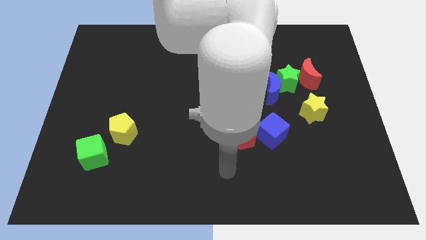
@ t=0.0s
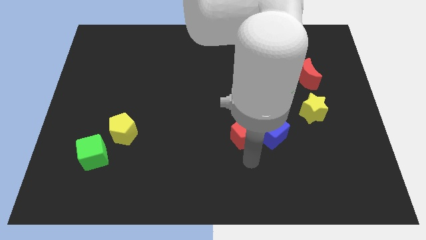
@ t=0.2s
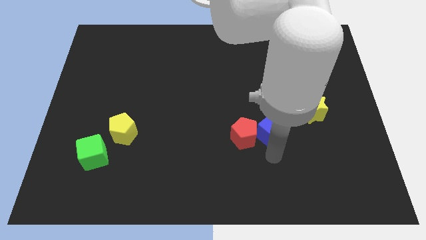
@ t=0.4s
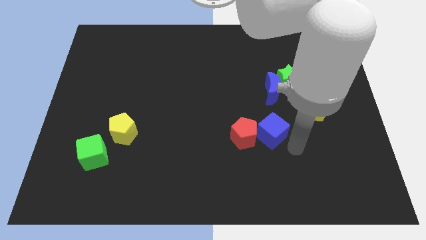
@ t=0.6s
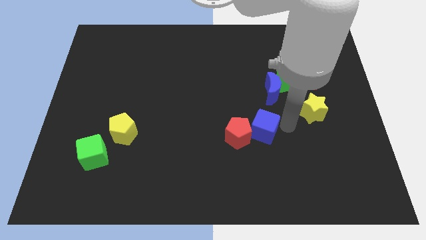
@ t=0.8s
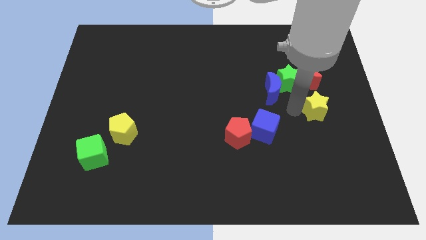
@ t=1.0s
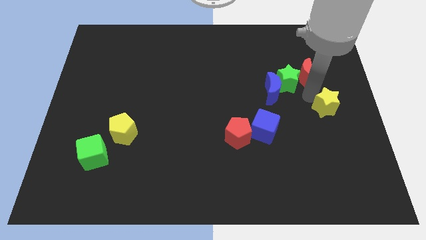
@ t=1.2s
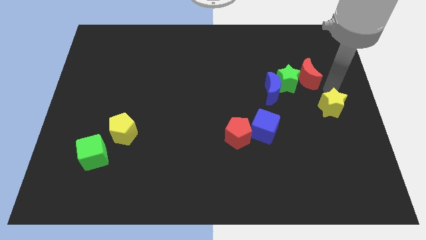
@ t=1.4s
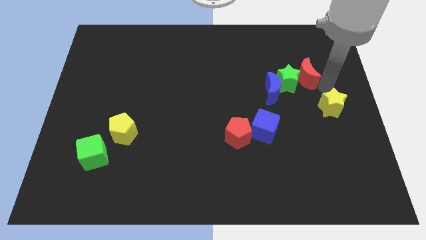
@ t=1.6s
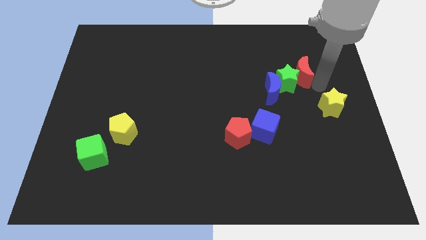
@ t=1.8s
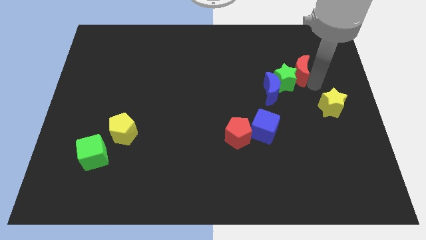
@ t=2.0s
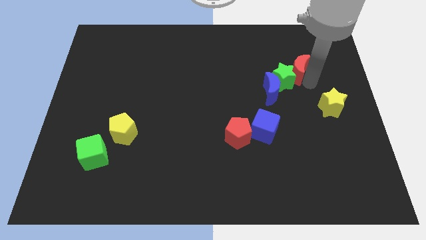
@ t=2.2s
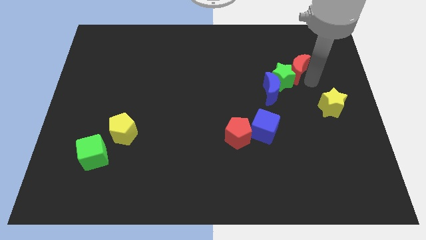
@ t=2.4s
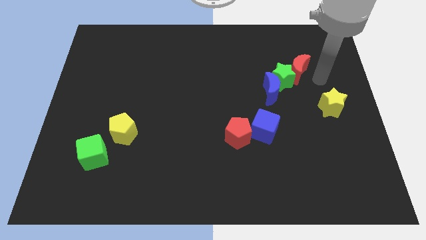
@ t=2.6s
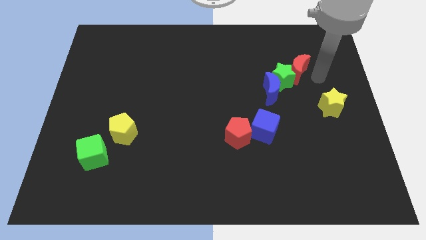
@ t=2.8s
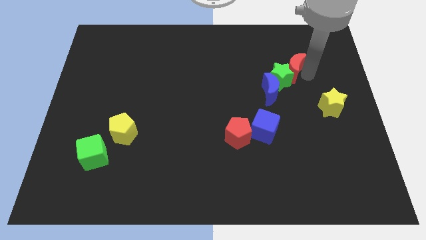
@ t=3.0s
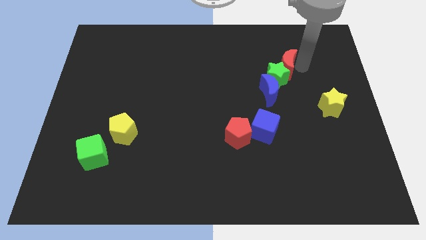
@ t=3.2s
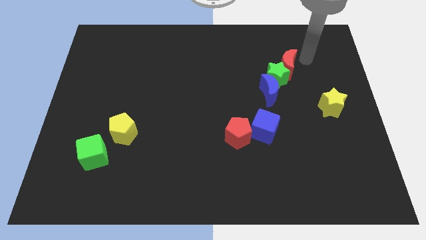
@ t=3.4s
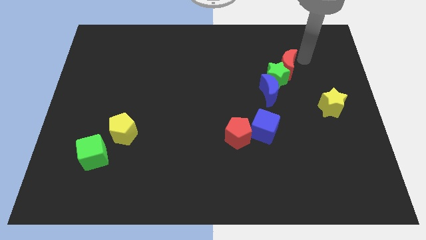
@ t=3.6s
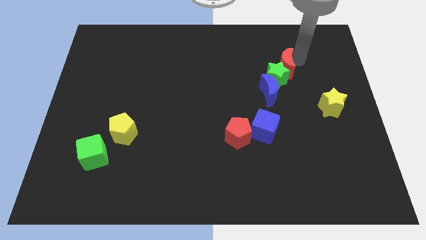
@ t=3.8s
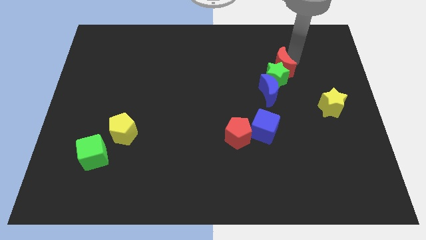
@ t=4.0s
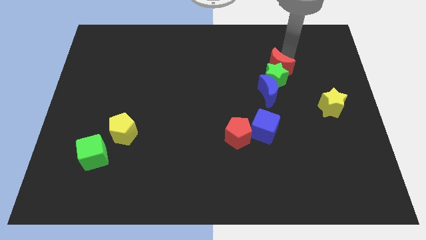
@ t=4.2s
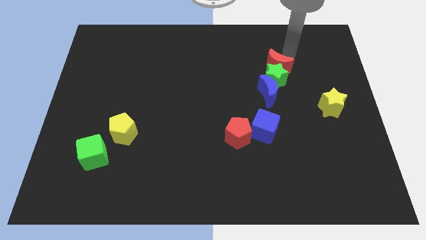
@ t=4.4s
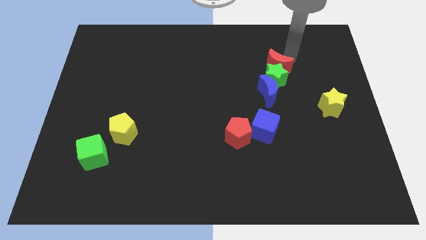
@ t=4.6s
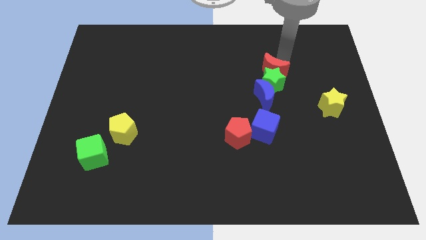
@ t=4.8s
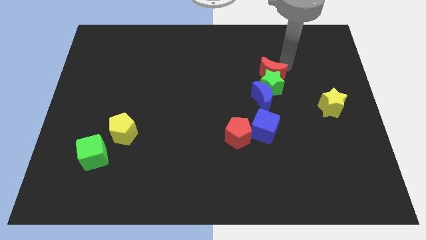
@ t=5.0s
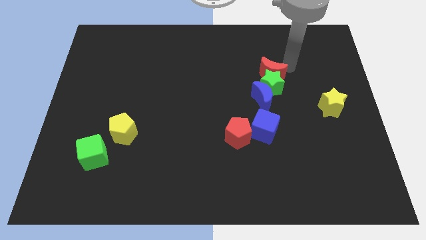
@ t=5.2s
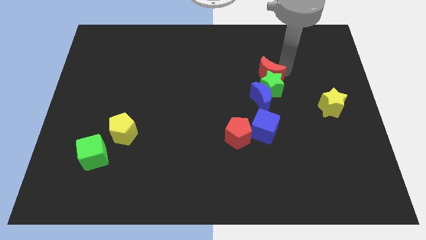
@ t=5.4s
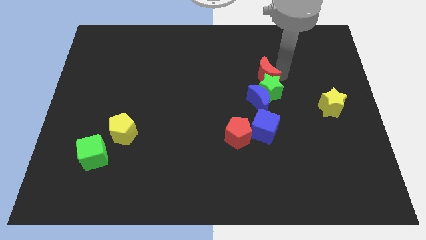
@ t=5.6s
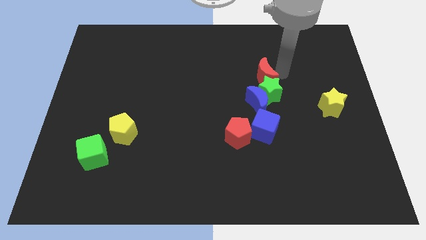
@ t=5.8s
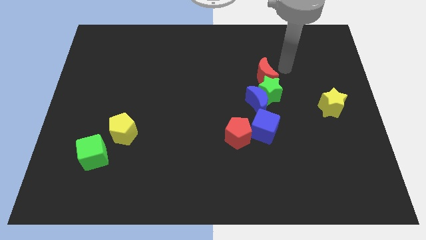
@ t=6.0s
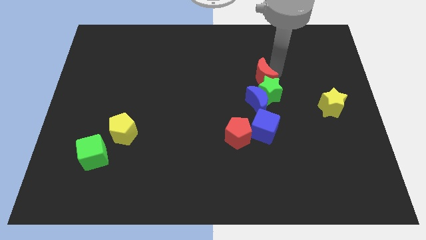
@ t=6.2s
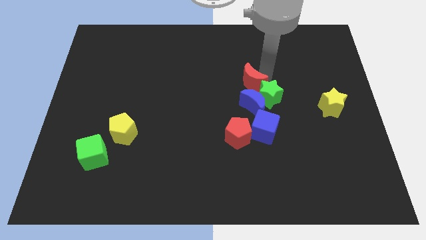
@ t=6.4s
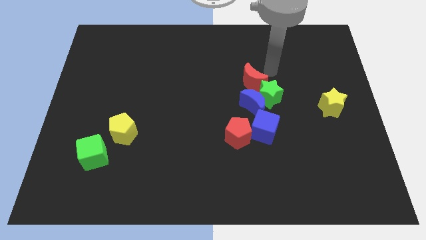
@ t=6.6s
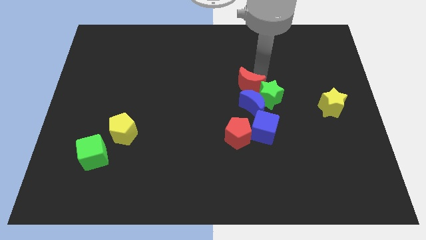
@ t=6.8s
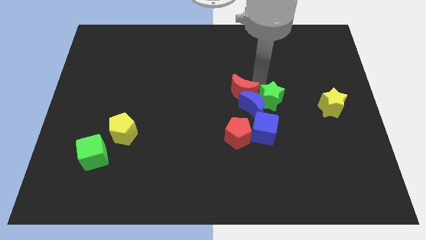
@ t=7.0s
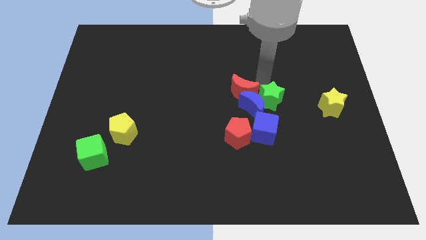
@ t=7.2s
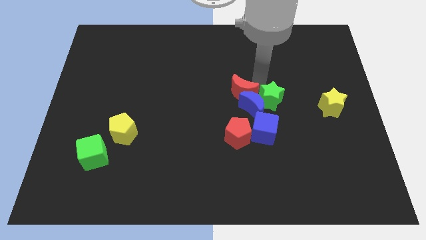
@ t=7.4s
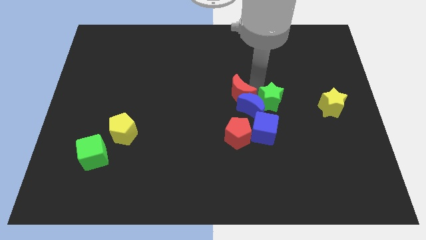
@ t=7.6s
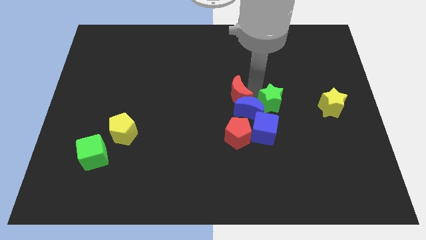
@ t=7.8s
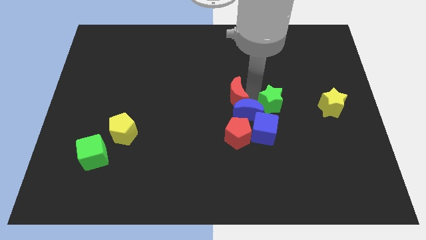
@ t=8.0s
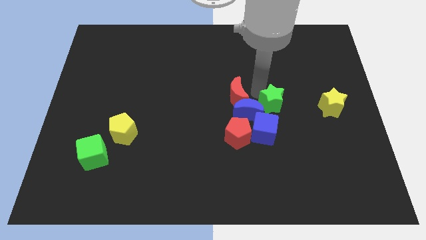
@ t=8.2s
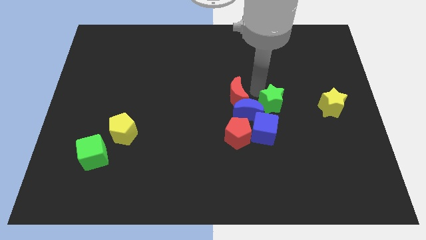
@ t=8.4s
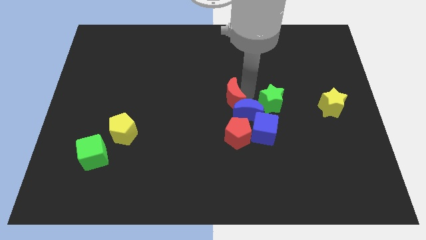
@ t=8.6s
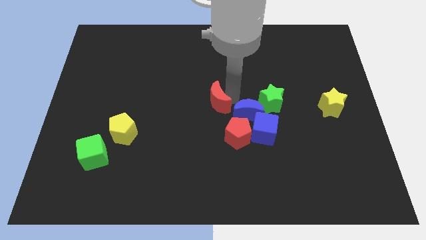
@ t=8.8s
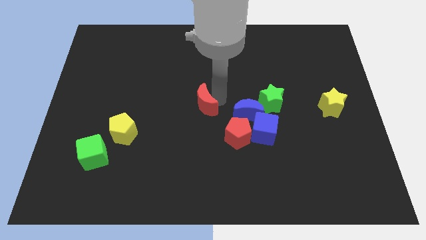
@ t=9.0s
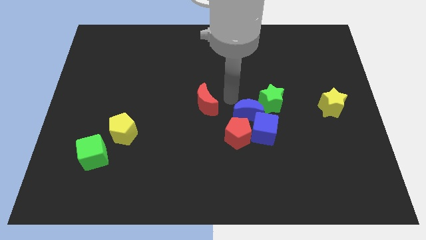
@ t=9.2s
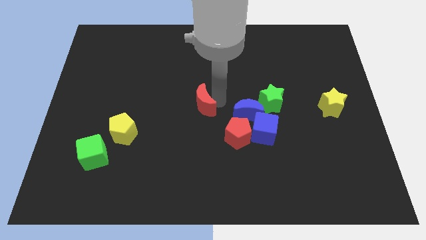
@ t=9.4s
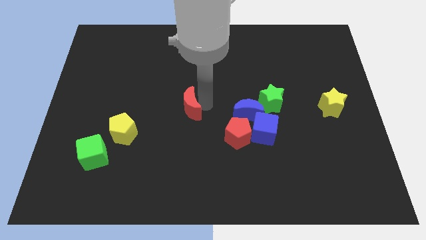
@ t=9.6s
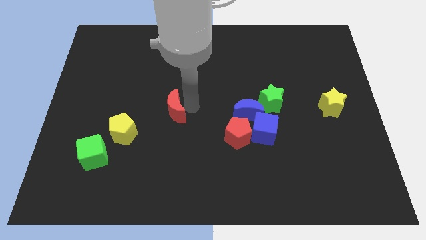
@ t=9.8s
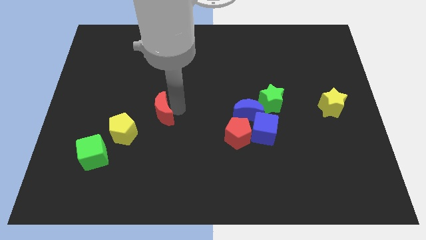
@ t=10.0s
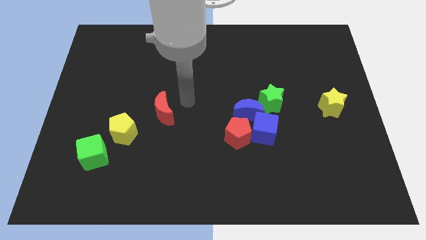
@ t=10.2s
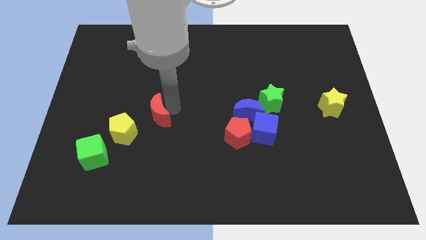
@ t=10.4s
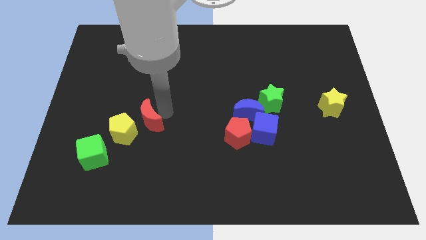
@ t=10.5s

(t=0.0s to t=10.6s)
move the red moon to the yellow pentagon

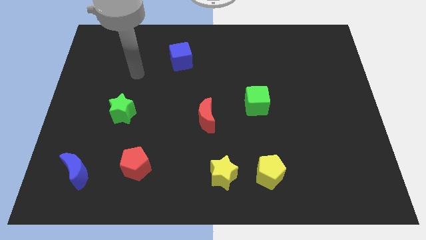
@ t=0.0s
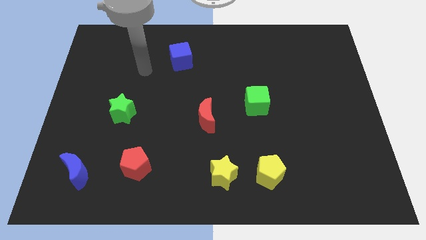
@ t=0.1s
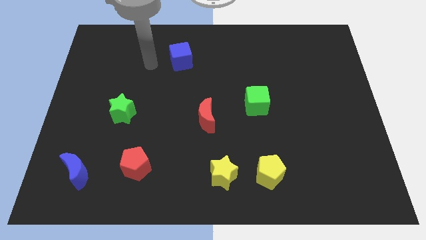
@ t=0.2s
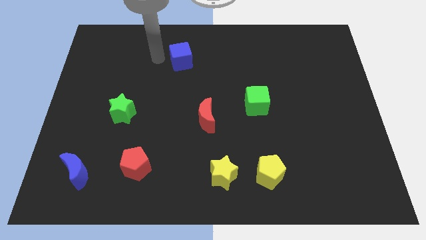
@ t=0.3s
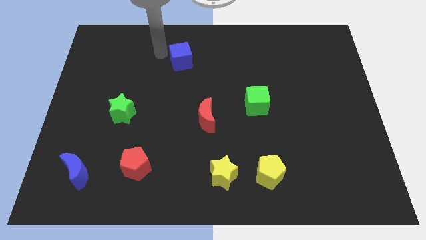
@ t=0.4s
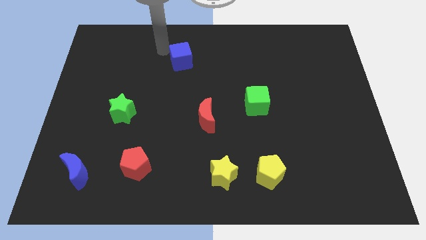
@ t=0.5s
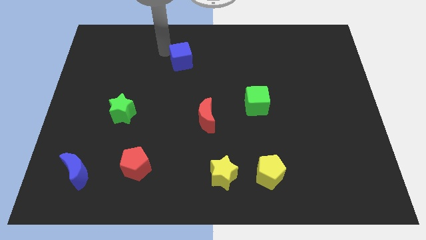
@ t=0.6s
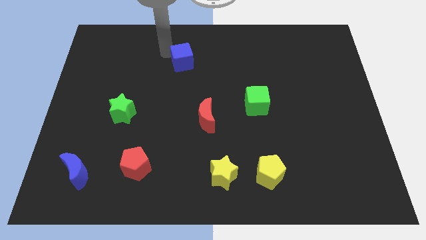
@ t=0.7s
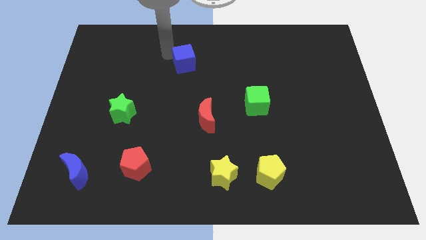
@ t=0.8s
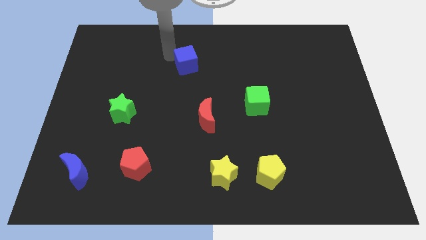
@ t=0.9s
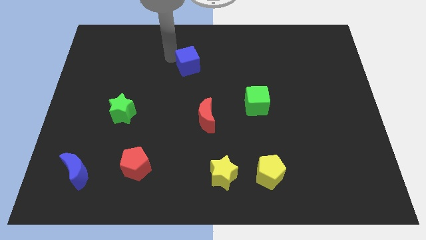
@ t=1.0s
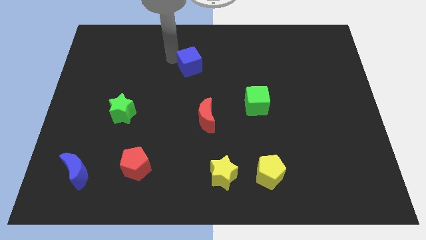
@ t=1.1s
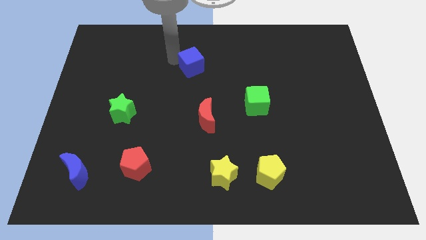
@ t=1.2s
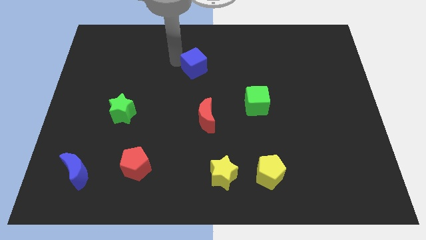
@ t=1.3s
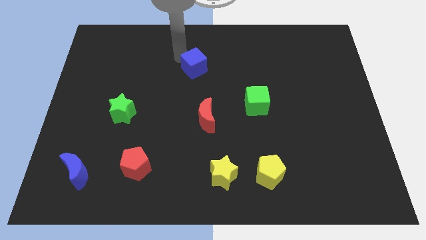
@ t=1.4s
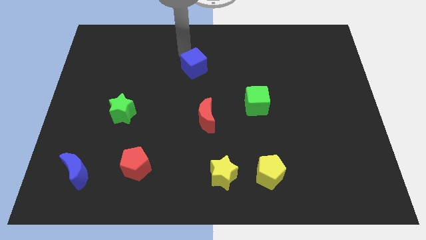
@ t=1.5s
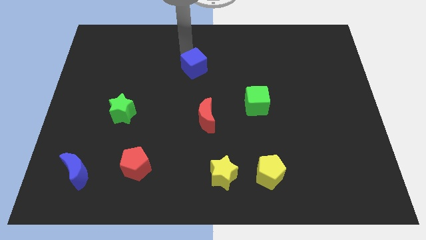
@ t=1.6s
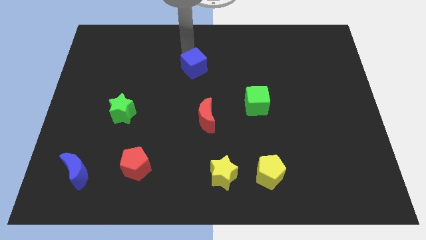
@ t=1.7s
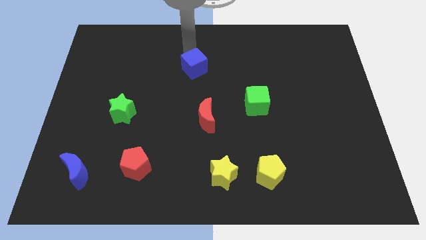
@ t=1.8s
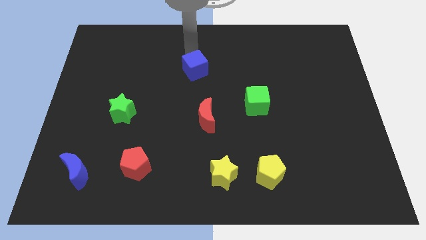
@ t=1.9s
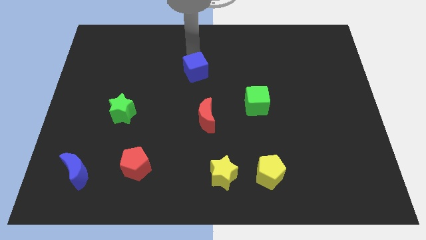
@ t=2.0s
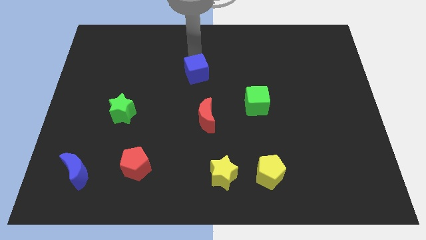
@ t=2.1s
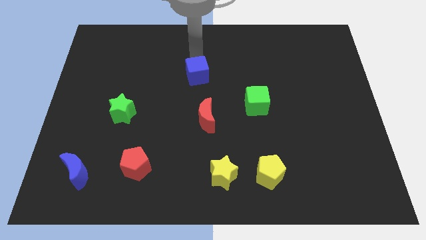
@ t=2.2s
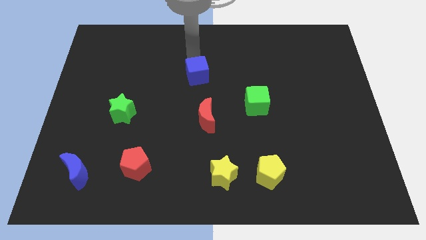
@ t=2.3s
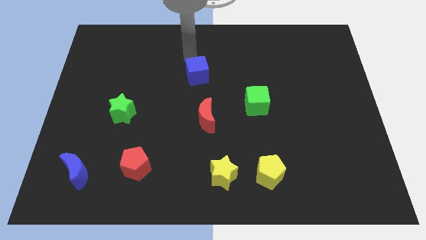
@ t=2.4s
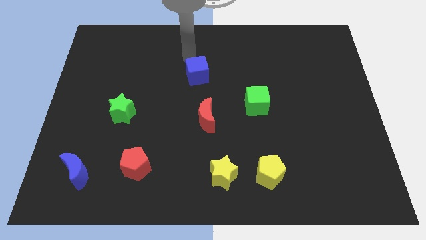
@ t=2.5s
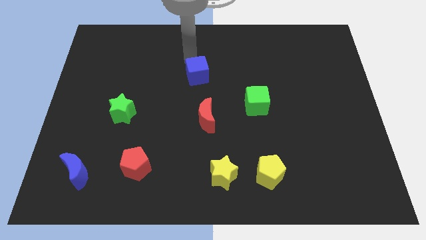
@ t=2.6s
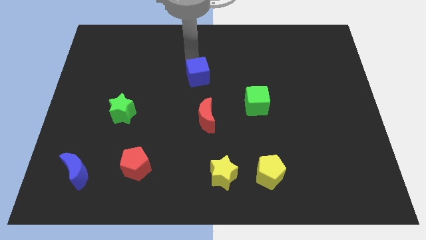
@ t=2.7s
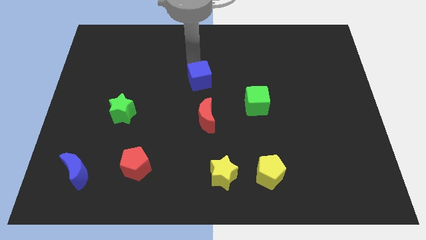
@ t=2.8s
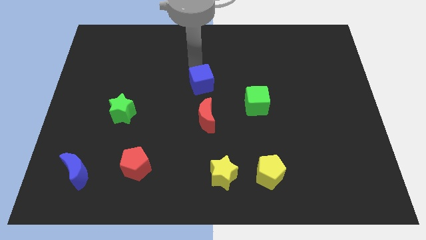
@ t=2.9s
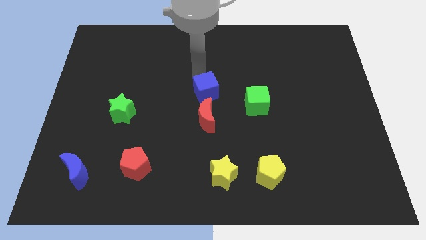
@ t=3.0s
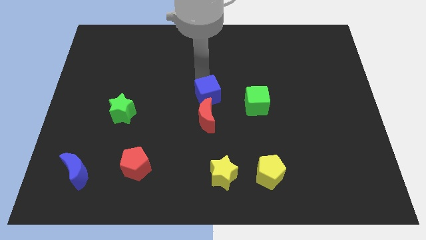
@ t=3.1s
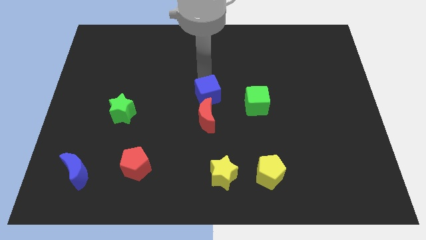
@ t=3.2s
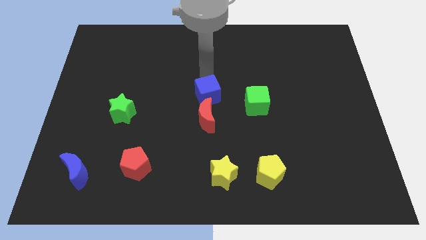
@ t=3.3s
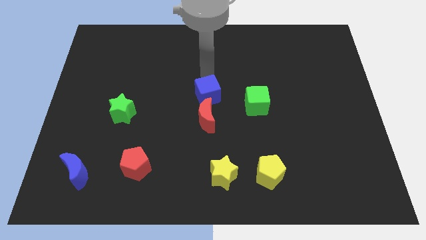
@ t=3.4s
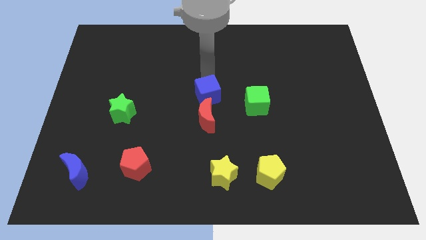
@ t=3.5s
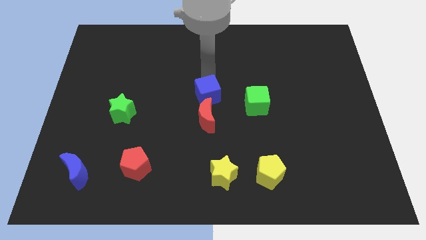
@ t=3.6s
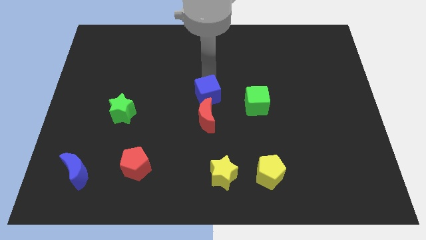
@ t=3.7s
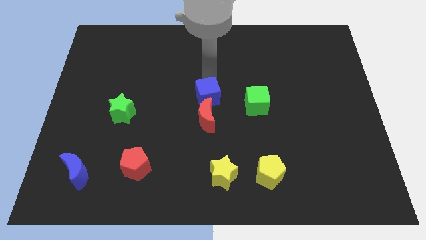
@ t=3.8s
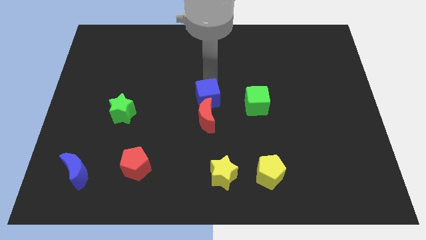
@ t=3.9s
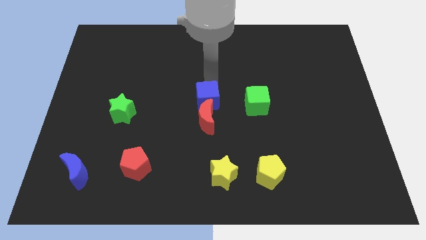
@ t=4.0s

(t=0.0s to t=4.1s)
slide the blue cube next to the red moon
